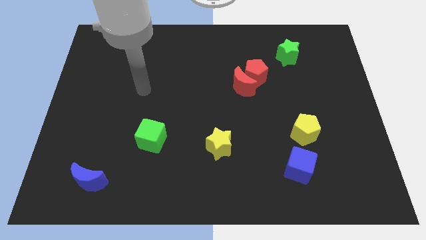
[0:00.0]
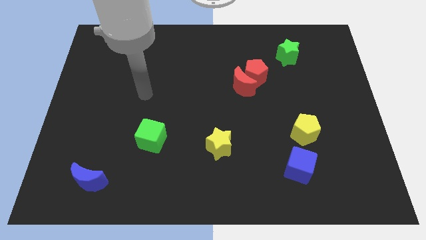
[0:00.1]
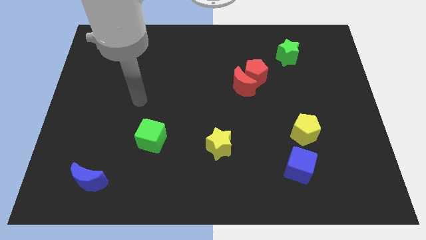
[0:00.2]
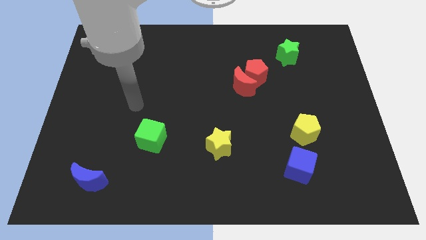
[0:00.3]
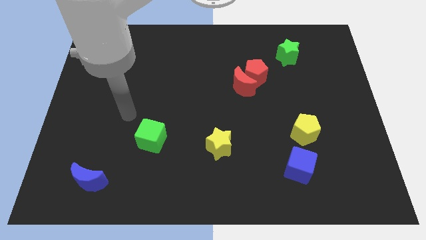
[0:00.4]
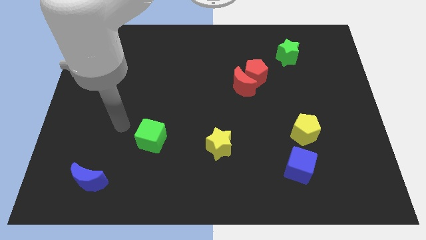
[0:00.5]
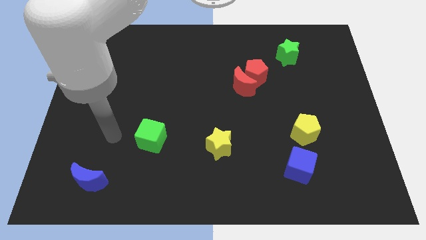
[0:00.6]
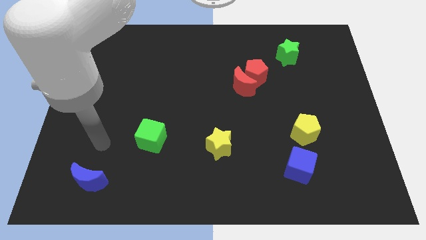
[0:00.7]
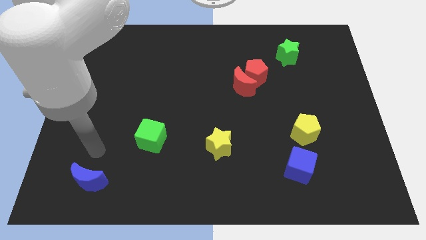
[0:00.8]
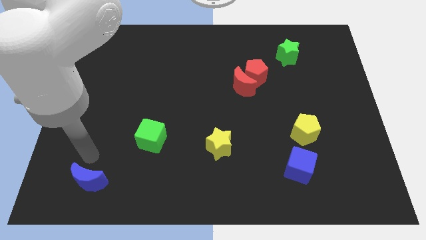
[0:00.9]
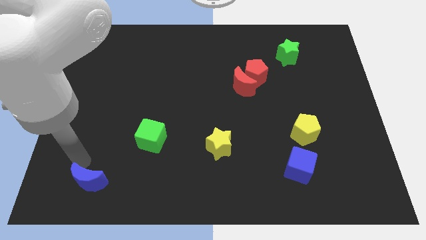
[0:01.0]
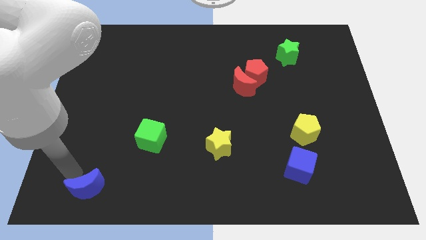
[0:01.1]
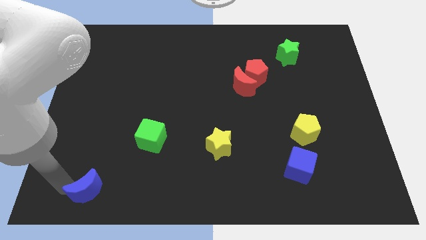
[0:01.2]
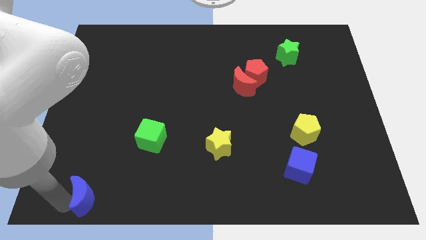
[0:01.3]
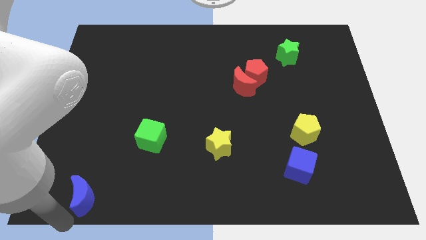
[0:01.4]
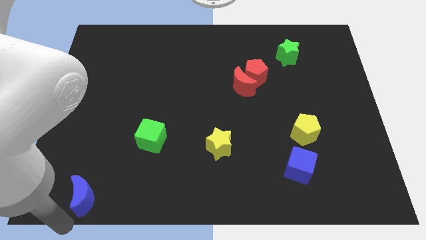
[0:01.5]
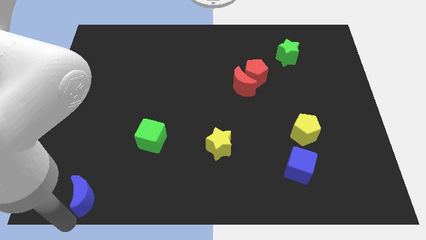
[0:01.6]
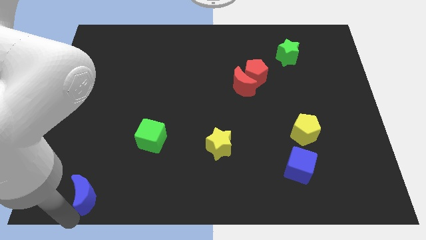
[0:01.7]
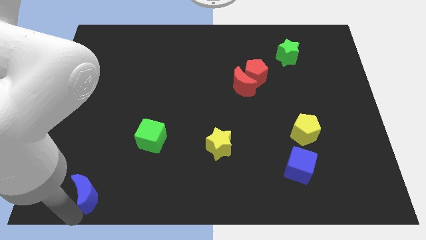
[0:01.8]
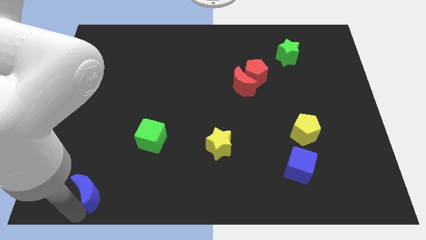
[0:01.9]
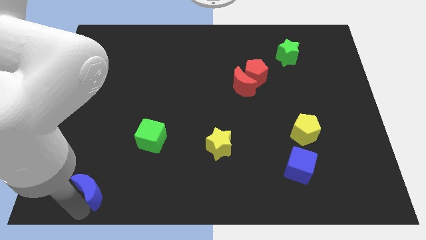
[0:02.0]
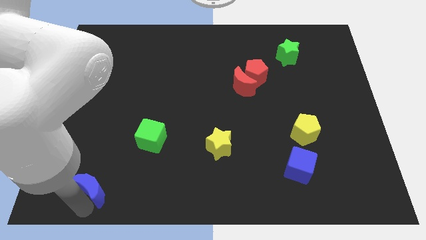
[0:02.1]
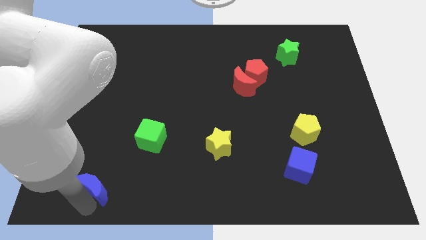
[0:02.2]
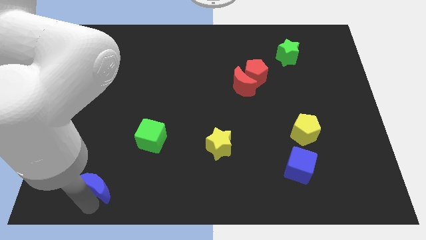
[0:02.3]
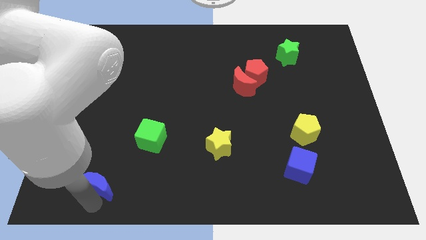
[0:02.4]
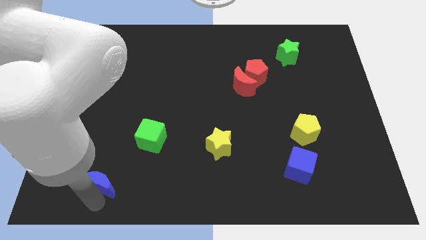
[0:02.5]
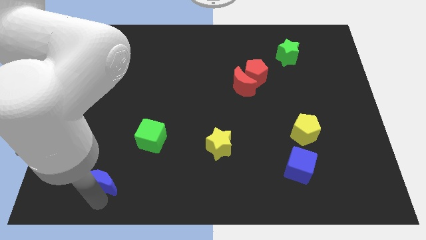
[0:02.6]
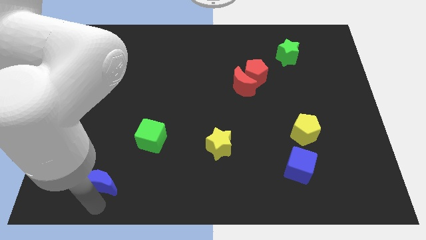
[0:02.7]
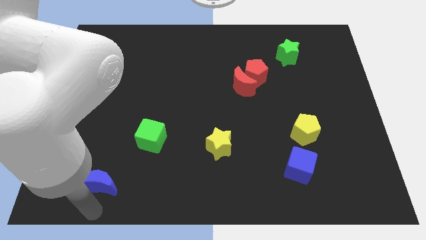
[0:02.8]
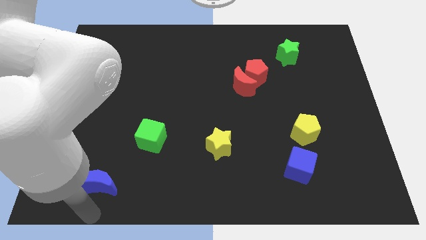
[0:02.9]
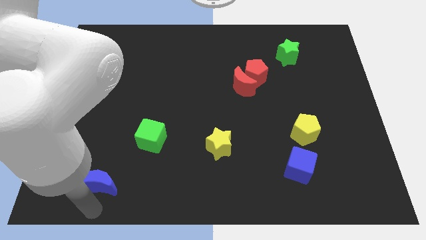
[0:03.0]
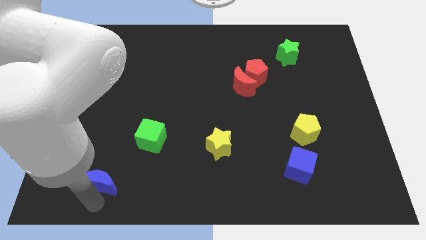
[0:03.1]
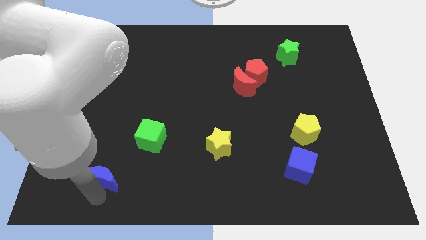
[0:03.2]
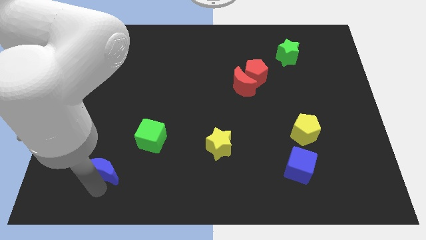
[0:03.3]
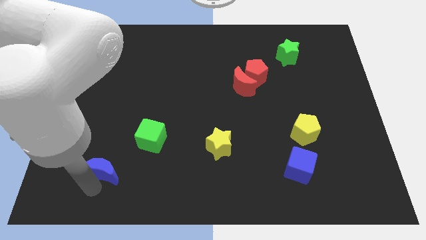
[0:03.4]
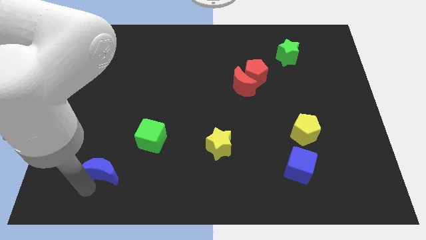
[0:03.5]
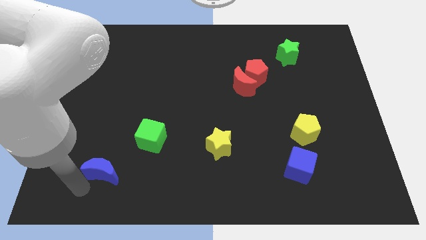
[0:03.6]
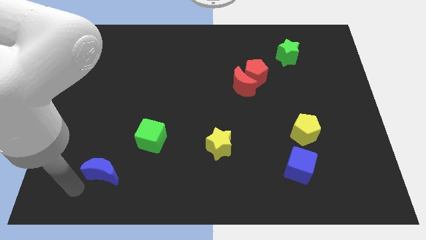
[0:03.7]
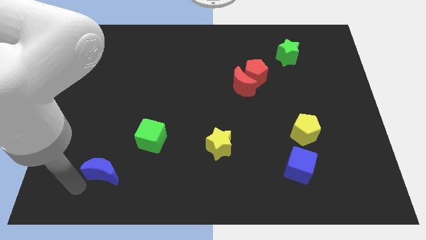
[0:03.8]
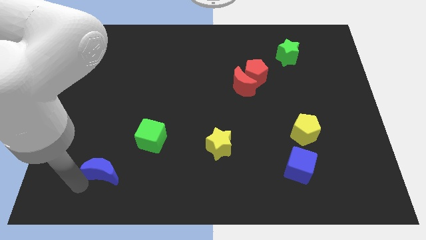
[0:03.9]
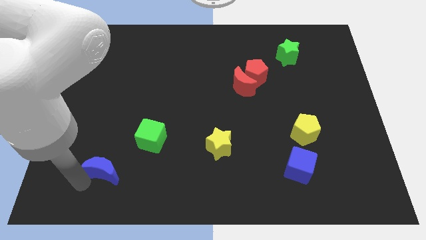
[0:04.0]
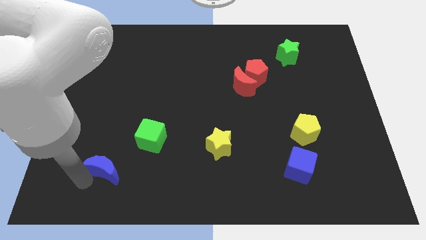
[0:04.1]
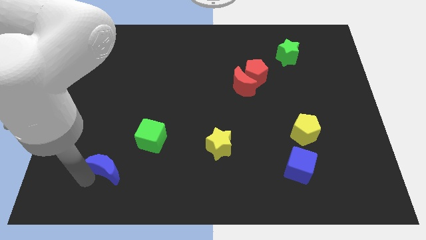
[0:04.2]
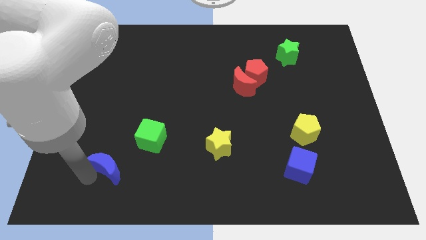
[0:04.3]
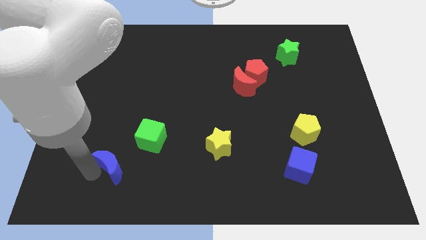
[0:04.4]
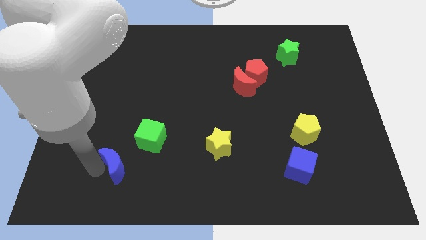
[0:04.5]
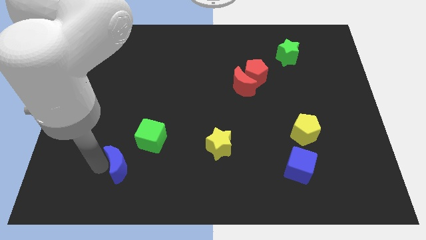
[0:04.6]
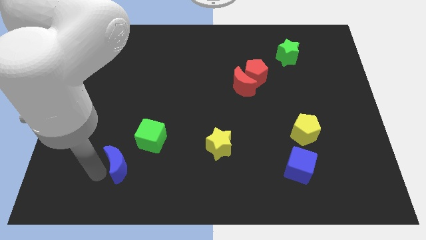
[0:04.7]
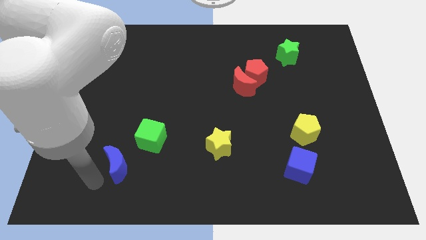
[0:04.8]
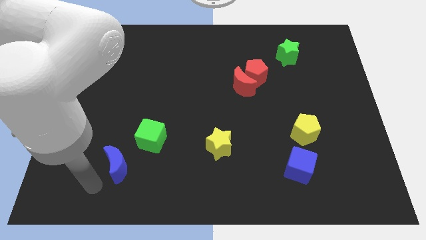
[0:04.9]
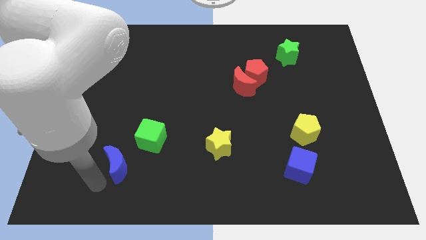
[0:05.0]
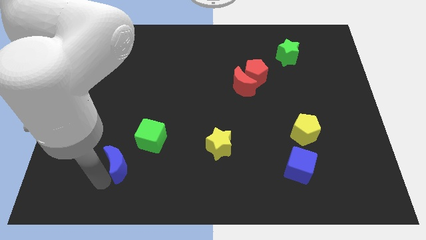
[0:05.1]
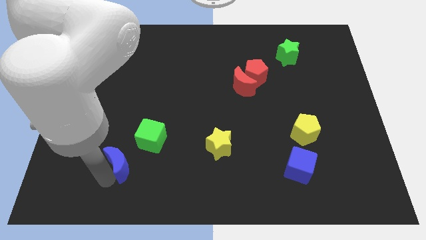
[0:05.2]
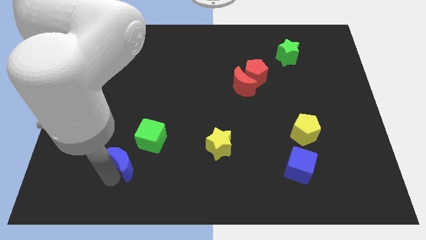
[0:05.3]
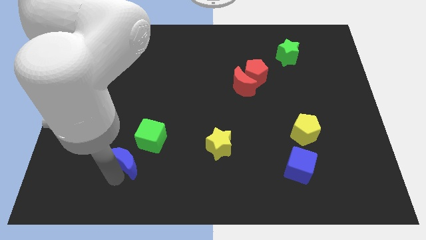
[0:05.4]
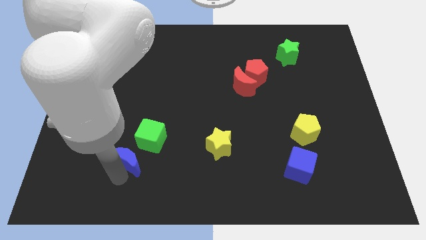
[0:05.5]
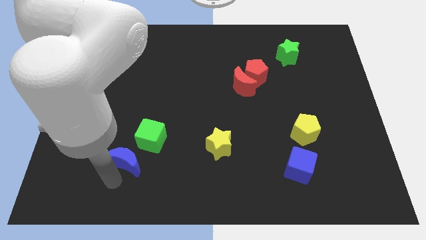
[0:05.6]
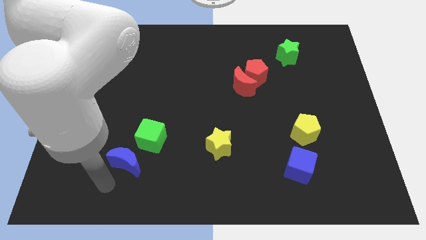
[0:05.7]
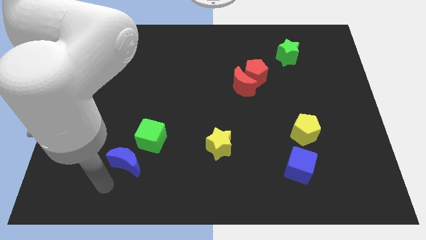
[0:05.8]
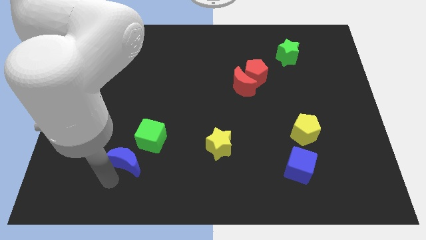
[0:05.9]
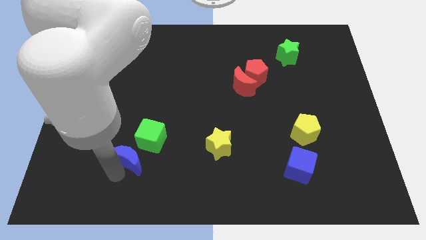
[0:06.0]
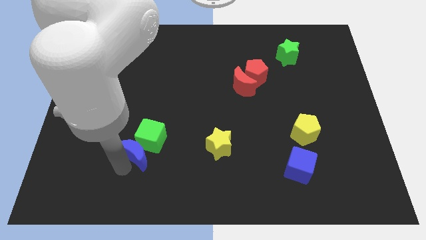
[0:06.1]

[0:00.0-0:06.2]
slide the blue moon close to the green cube

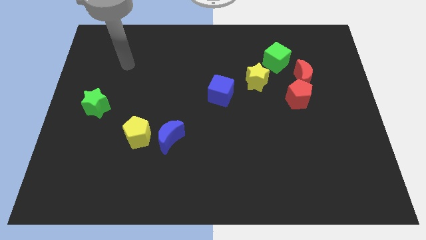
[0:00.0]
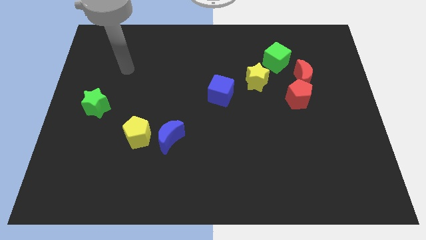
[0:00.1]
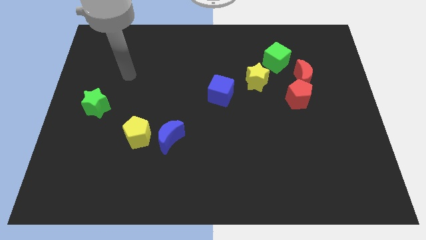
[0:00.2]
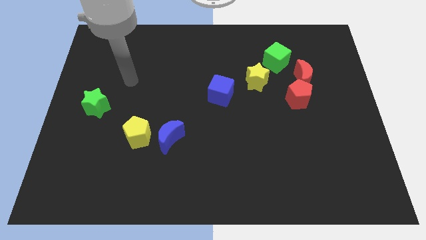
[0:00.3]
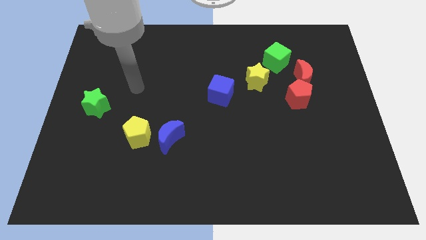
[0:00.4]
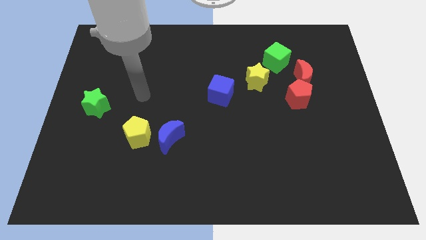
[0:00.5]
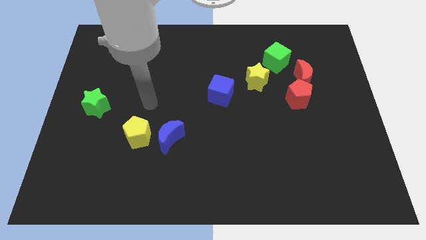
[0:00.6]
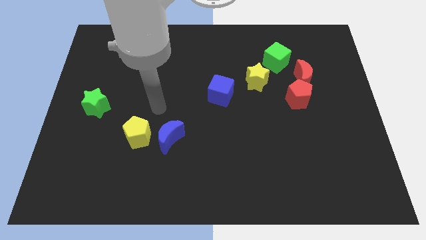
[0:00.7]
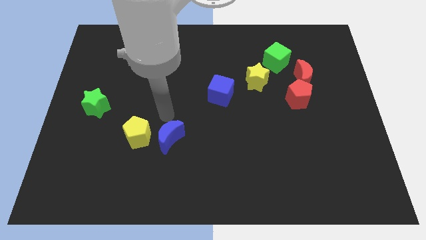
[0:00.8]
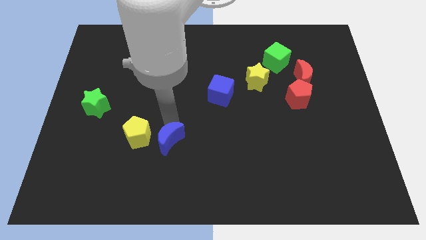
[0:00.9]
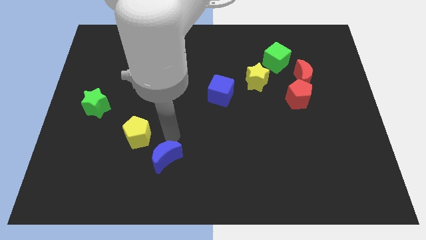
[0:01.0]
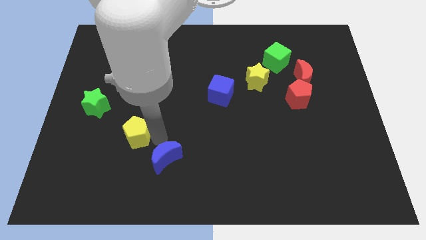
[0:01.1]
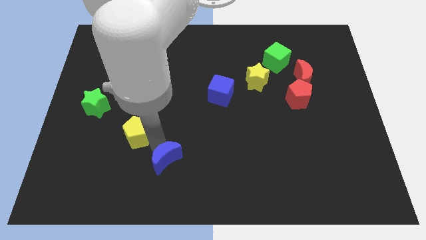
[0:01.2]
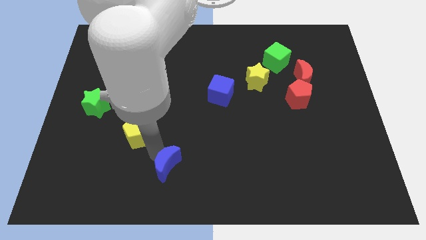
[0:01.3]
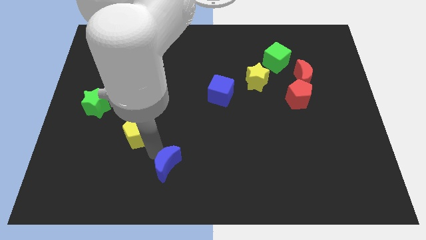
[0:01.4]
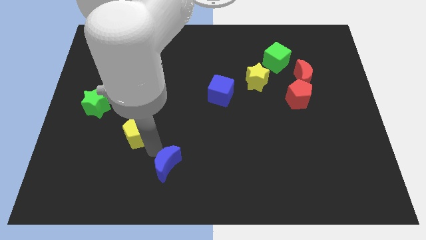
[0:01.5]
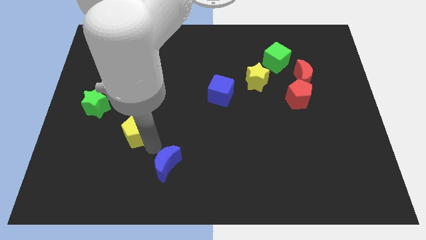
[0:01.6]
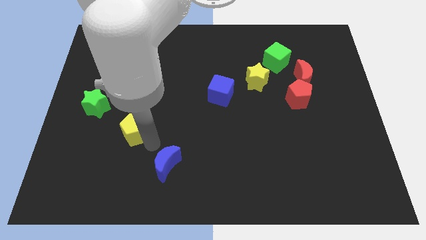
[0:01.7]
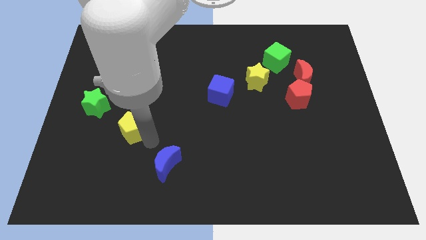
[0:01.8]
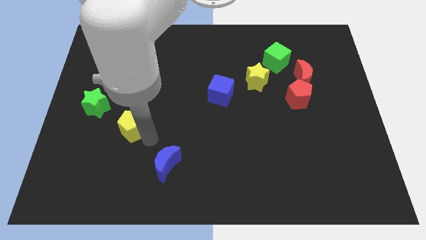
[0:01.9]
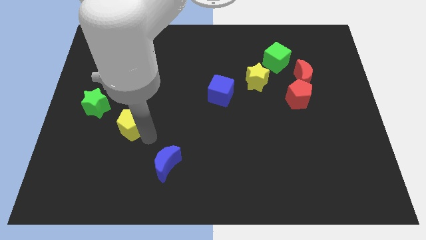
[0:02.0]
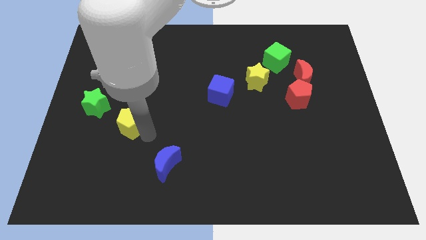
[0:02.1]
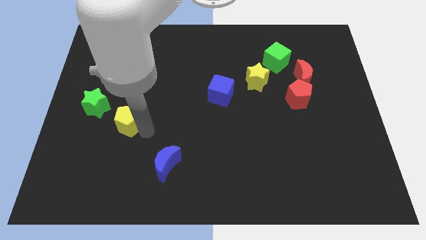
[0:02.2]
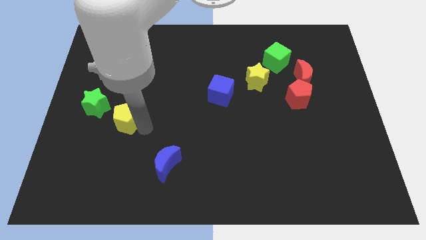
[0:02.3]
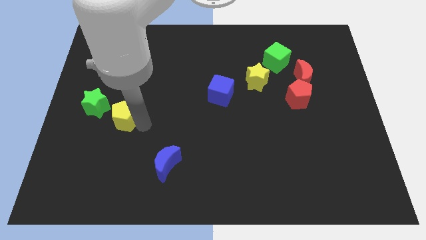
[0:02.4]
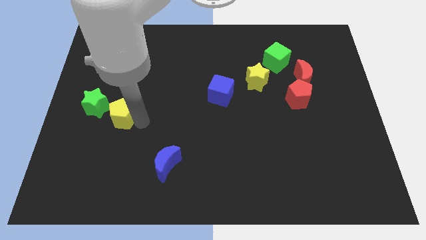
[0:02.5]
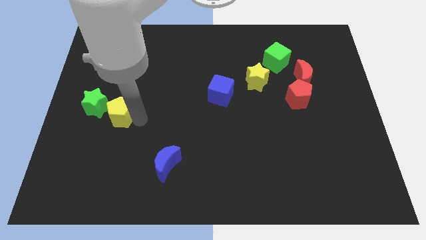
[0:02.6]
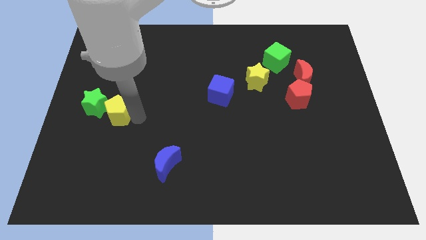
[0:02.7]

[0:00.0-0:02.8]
put the yellow pentagon next to the green star
